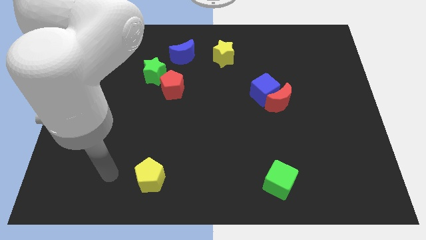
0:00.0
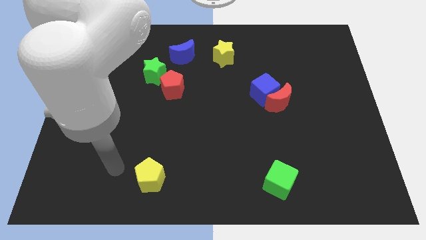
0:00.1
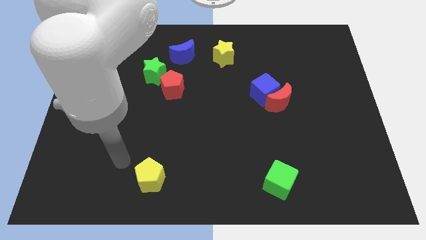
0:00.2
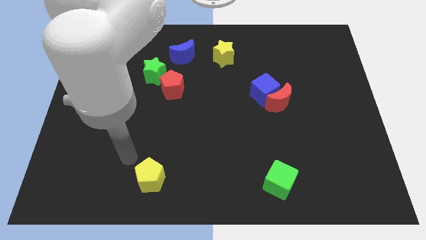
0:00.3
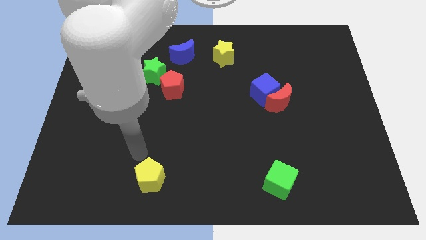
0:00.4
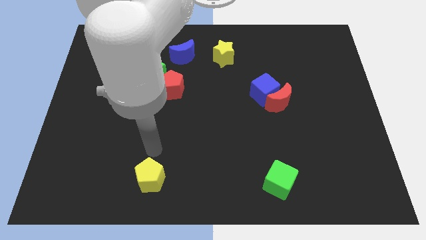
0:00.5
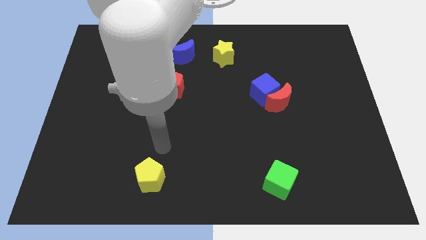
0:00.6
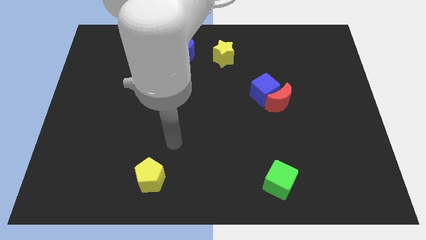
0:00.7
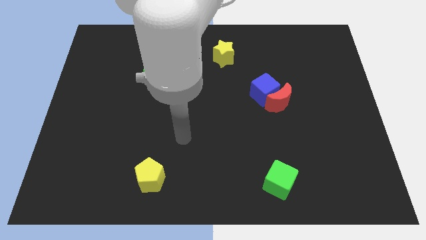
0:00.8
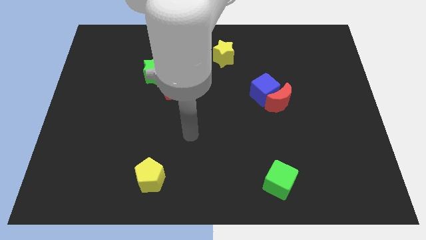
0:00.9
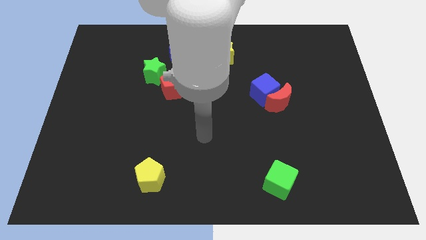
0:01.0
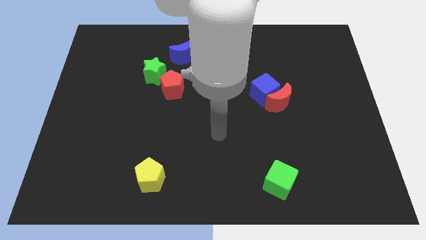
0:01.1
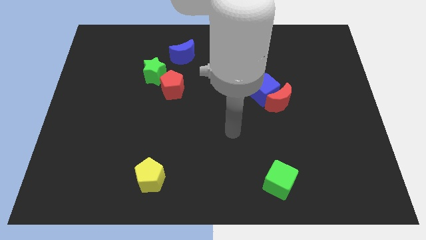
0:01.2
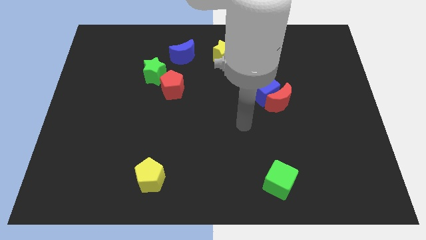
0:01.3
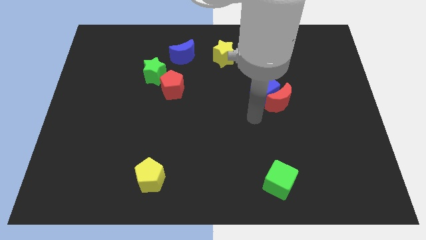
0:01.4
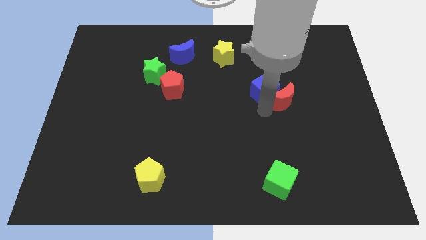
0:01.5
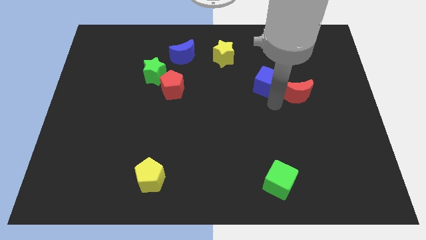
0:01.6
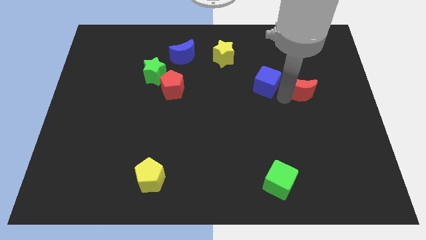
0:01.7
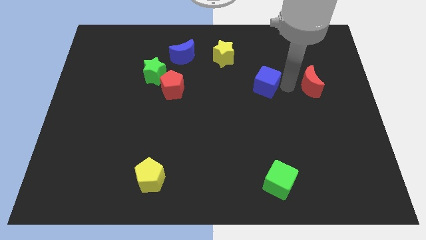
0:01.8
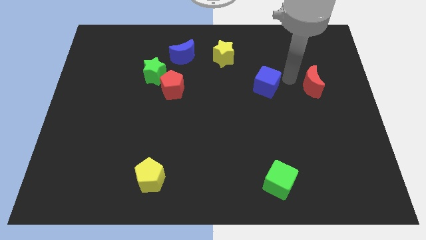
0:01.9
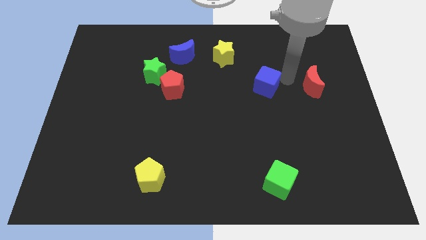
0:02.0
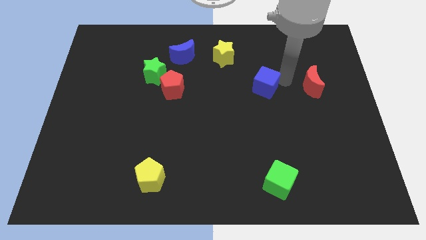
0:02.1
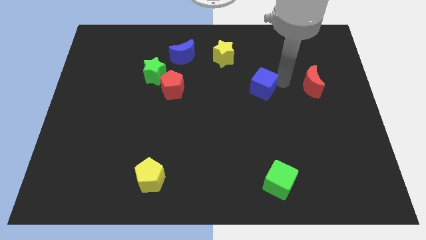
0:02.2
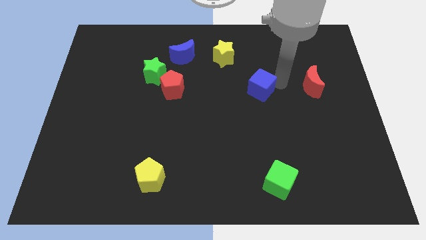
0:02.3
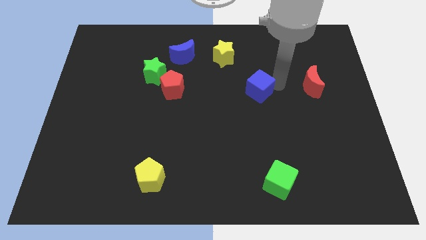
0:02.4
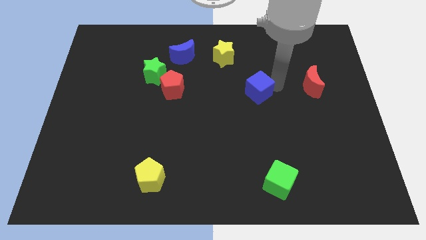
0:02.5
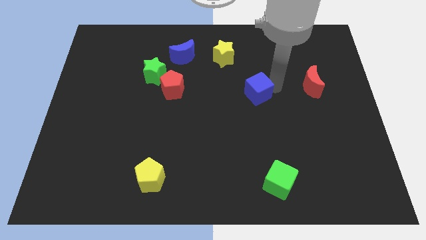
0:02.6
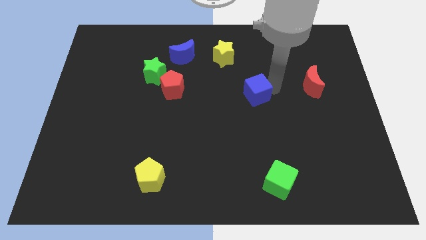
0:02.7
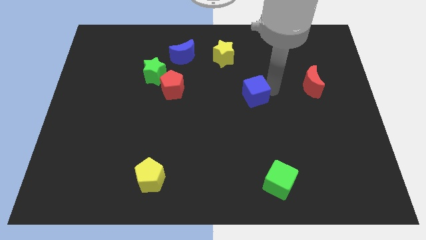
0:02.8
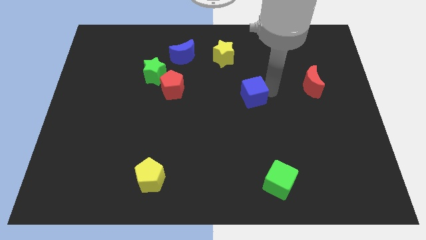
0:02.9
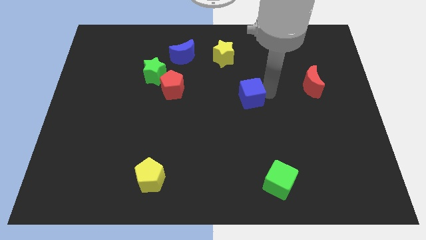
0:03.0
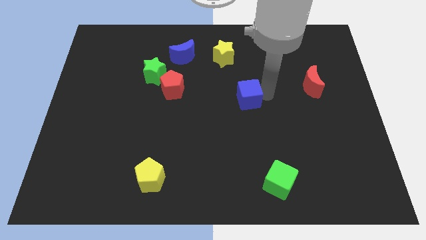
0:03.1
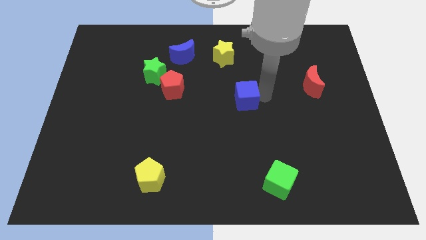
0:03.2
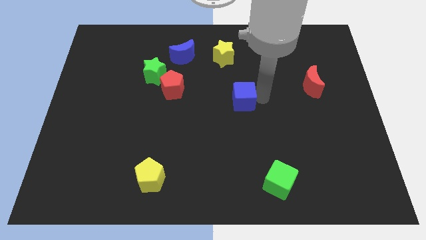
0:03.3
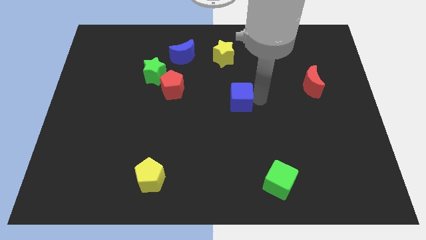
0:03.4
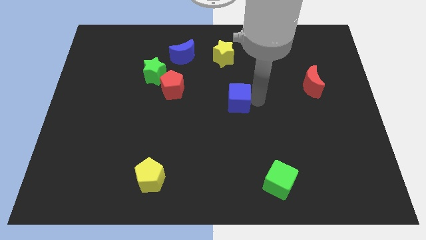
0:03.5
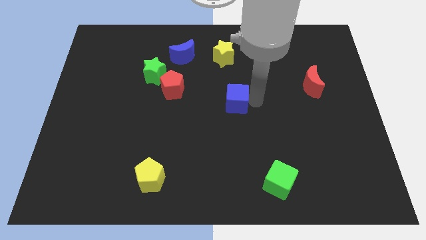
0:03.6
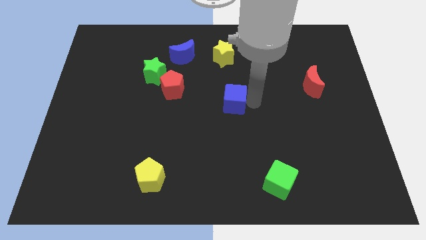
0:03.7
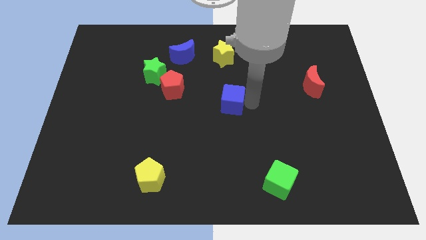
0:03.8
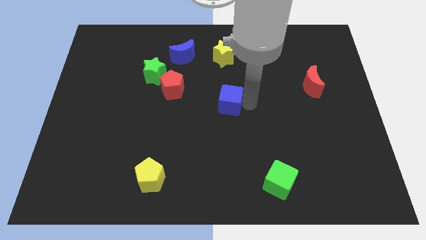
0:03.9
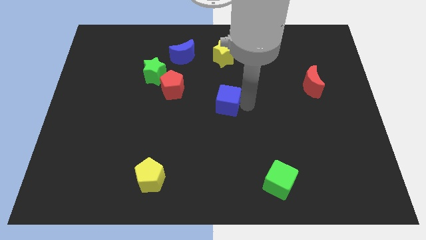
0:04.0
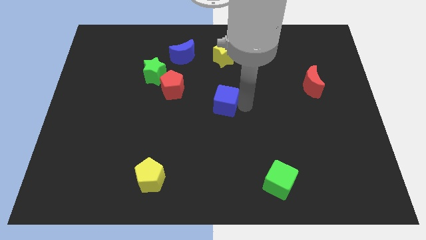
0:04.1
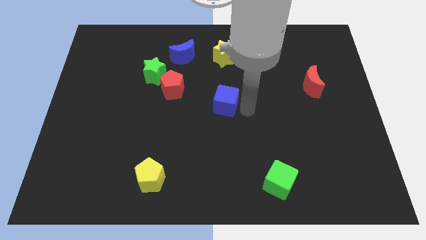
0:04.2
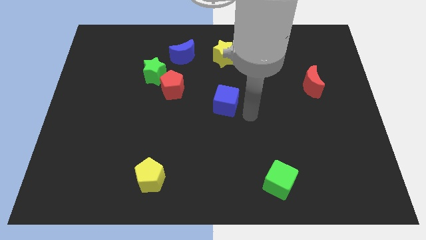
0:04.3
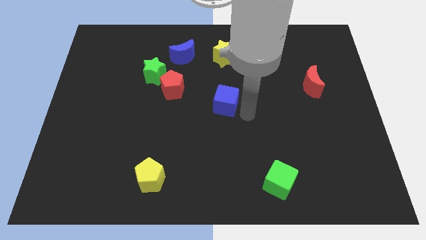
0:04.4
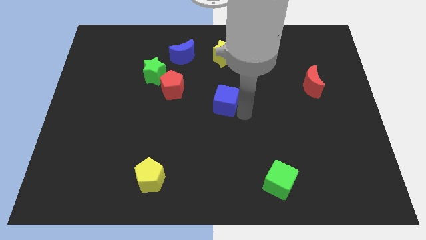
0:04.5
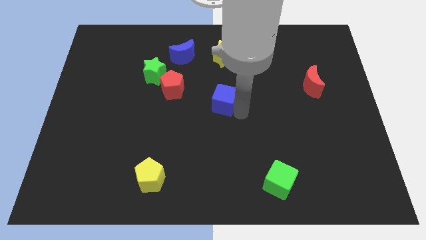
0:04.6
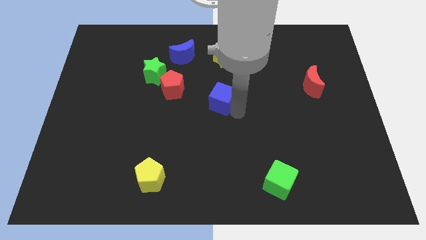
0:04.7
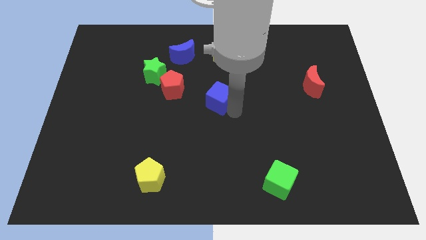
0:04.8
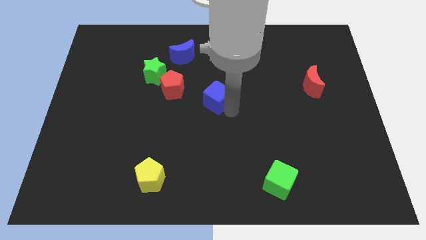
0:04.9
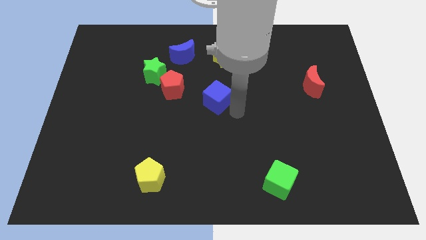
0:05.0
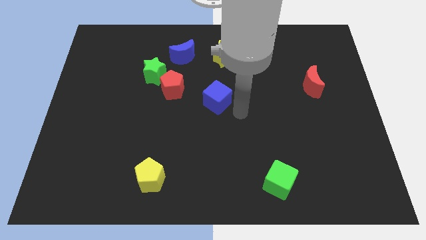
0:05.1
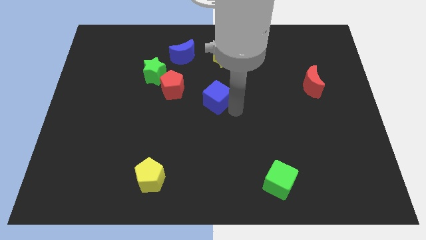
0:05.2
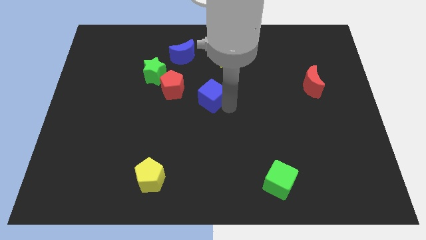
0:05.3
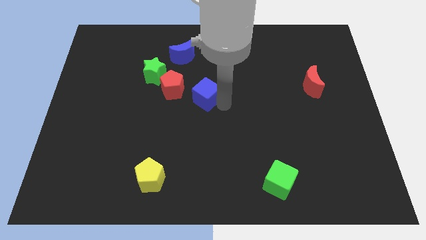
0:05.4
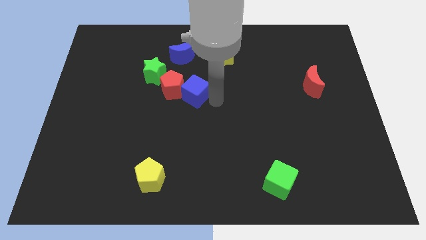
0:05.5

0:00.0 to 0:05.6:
put the blue cube close to the red pentagon
